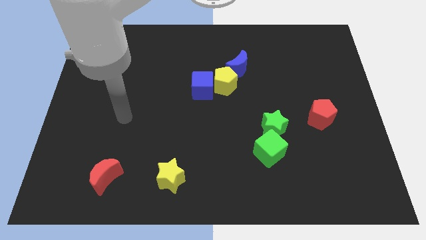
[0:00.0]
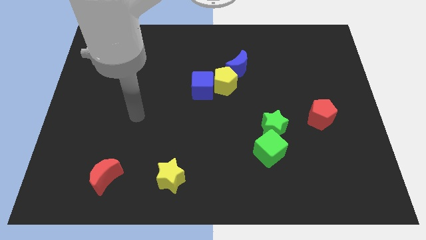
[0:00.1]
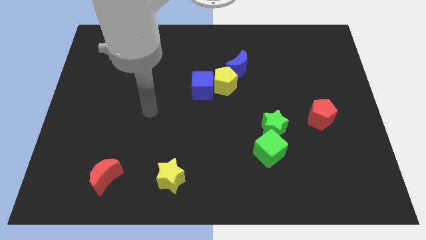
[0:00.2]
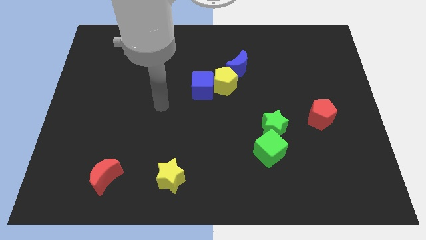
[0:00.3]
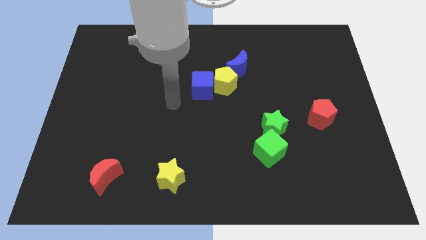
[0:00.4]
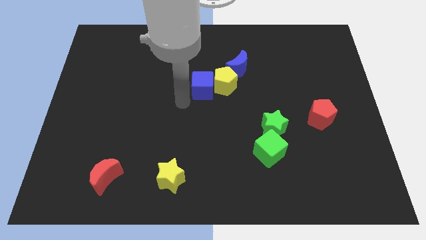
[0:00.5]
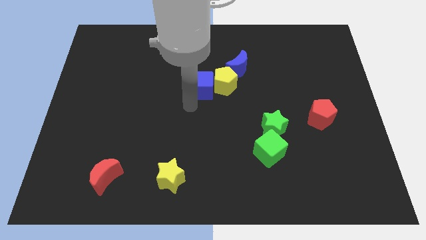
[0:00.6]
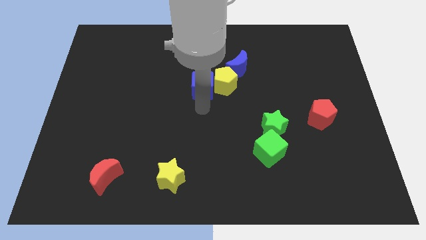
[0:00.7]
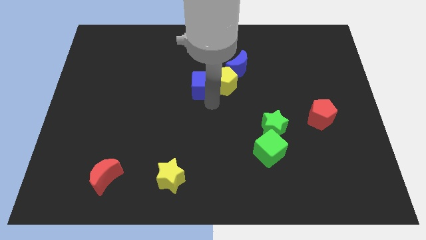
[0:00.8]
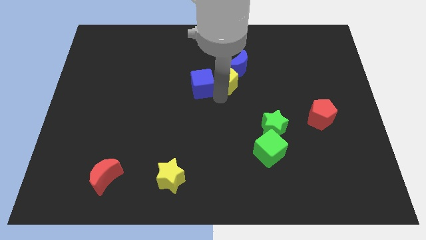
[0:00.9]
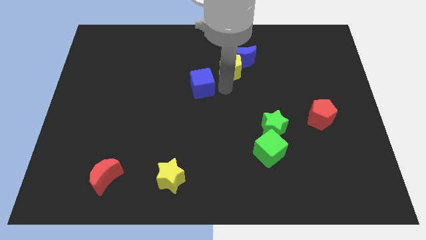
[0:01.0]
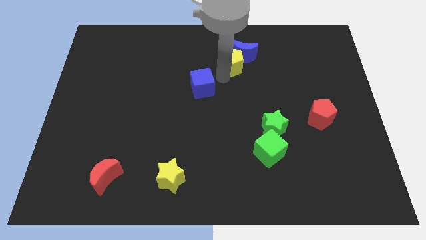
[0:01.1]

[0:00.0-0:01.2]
pull the blue cube apart from the yellow pentagon

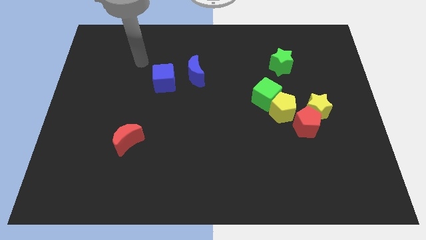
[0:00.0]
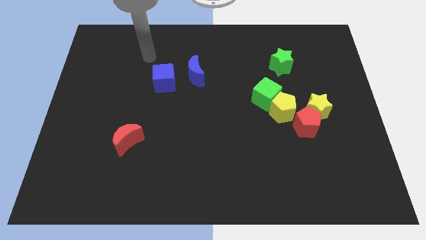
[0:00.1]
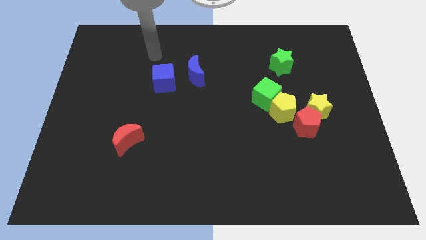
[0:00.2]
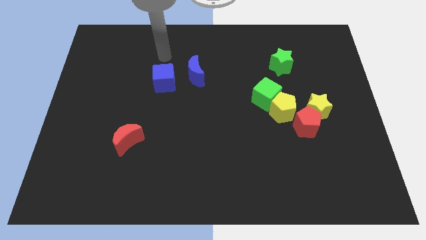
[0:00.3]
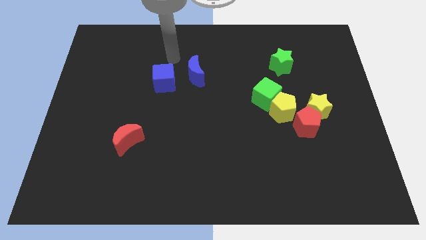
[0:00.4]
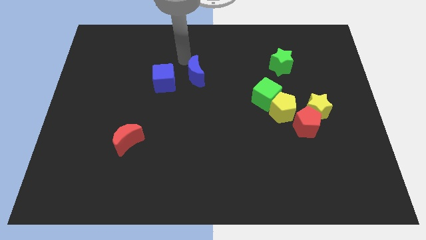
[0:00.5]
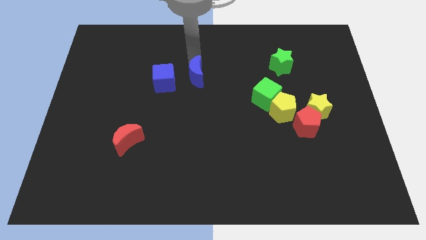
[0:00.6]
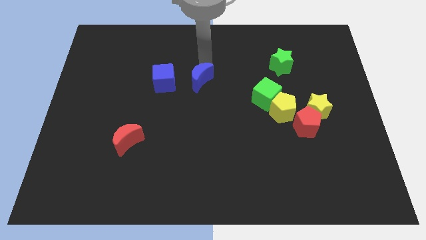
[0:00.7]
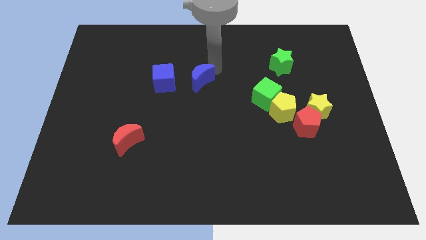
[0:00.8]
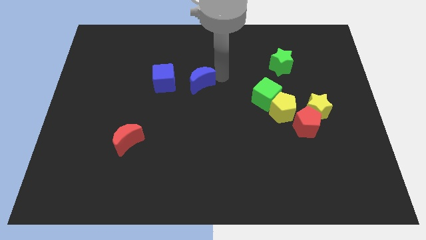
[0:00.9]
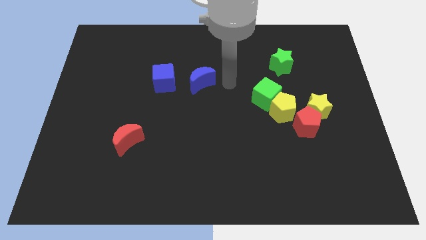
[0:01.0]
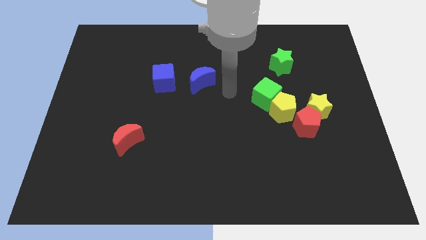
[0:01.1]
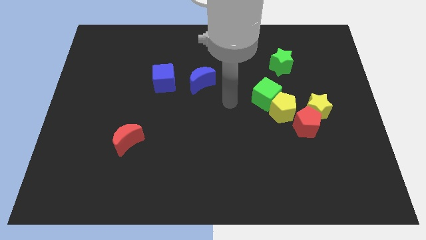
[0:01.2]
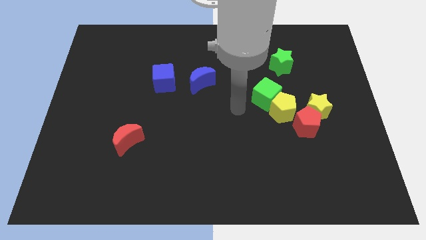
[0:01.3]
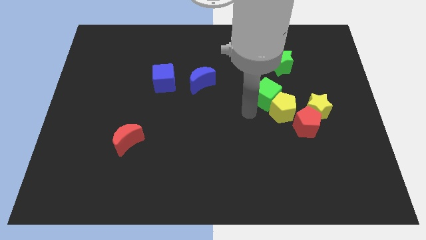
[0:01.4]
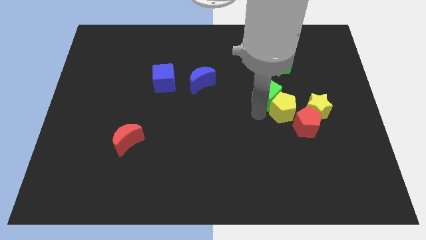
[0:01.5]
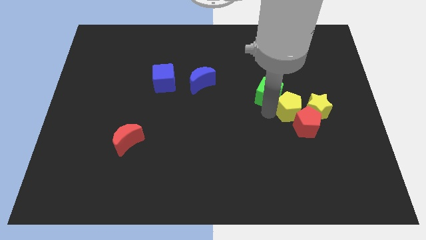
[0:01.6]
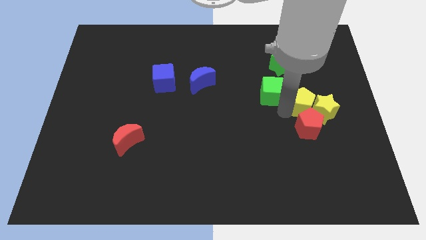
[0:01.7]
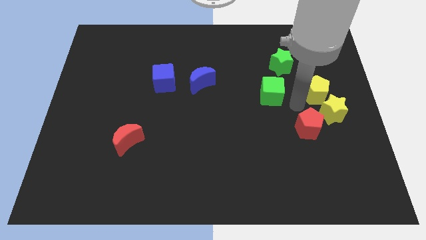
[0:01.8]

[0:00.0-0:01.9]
move the green cube away from the yellow pentagon

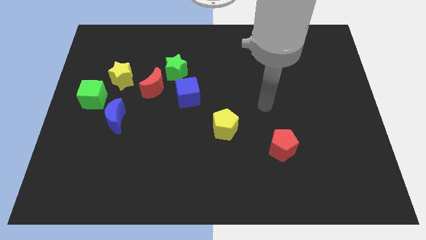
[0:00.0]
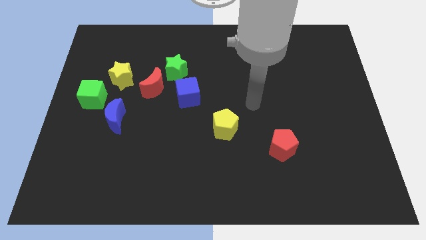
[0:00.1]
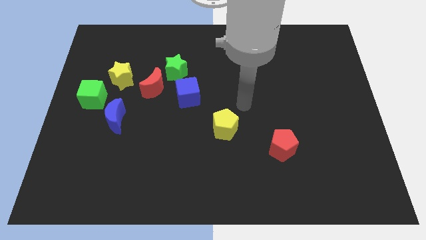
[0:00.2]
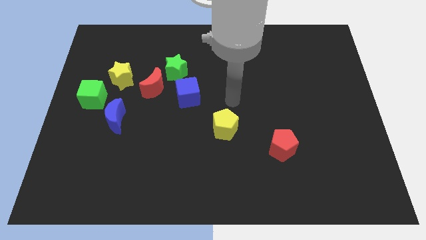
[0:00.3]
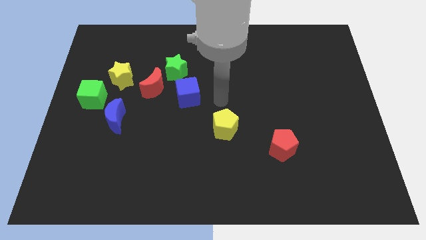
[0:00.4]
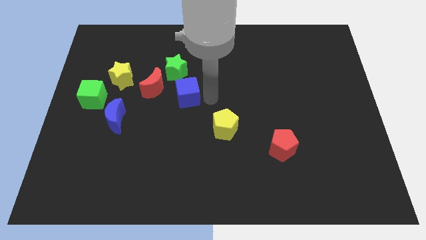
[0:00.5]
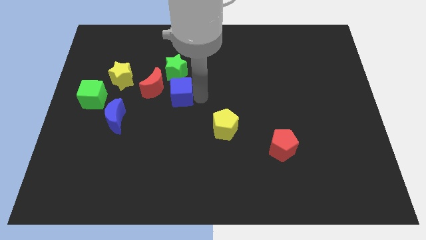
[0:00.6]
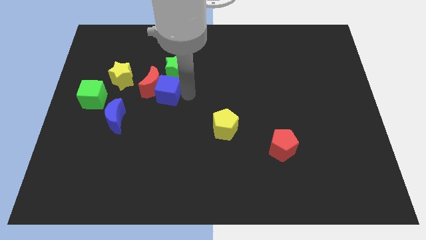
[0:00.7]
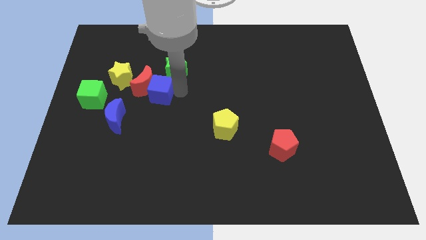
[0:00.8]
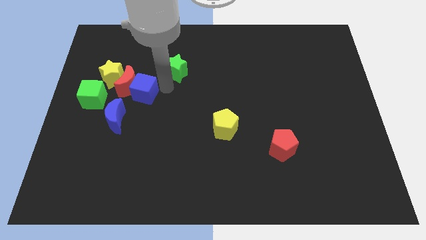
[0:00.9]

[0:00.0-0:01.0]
move the green star away from the red moon and blue cube

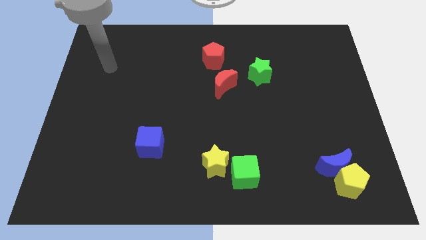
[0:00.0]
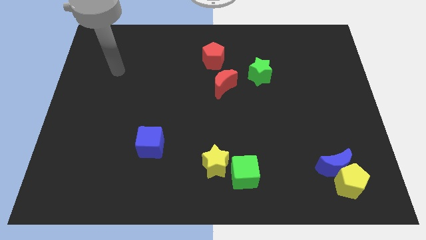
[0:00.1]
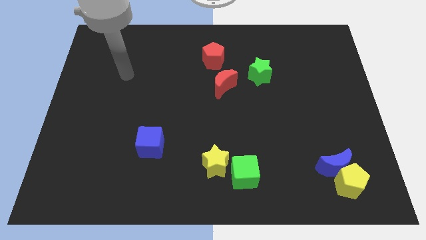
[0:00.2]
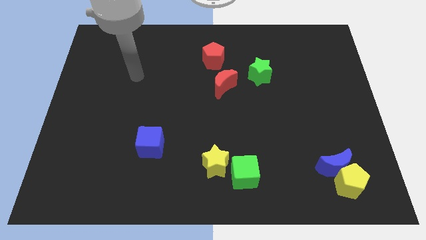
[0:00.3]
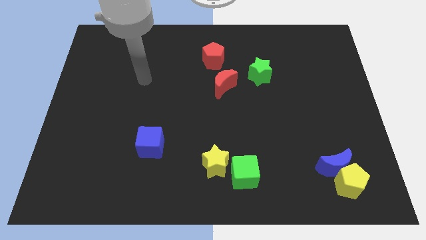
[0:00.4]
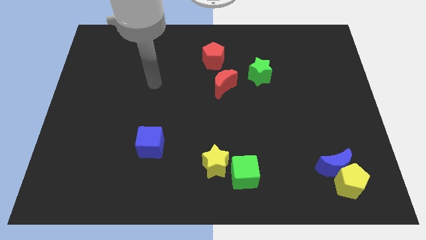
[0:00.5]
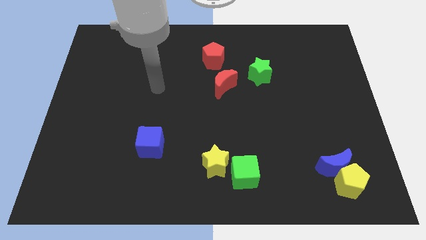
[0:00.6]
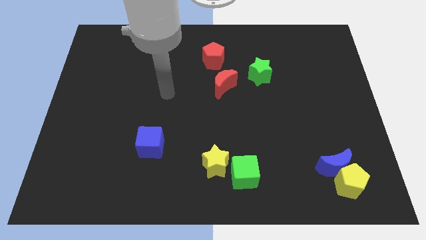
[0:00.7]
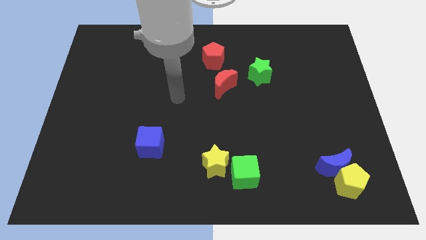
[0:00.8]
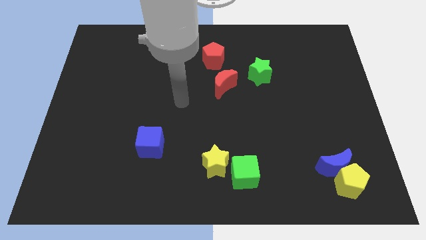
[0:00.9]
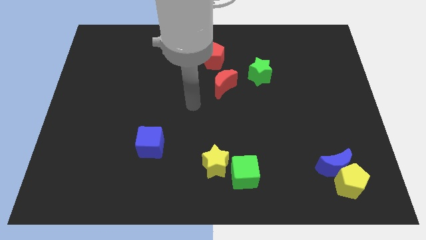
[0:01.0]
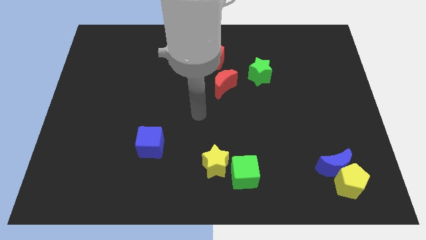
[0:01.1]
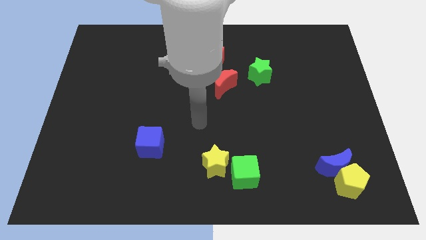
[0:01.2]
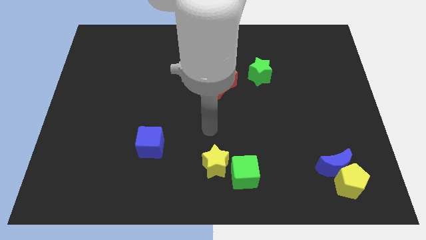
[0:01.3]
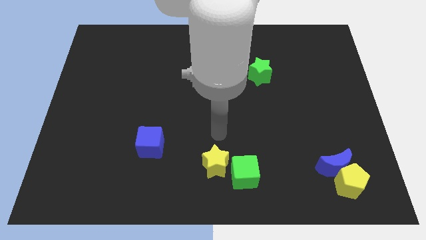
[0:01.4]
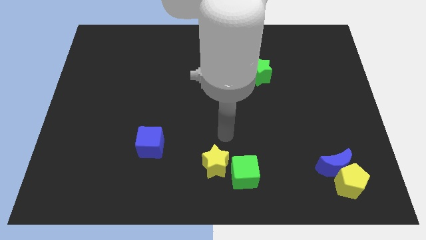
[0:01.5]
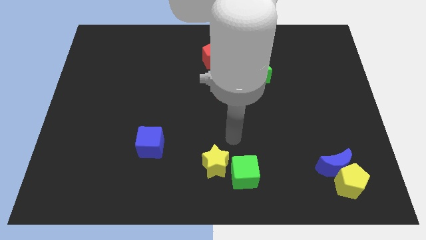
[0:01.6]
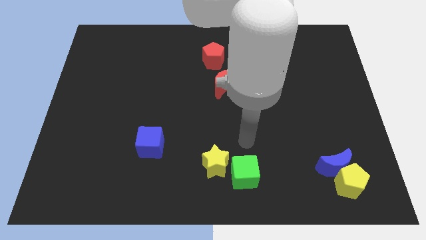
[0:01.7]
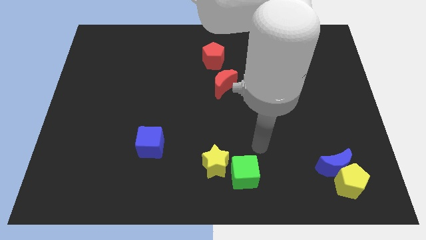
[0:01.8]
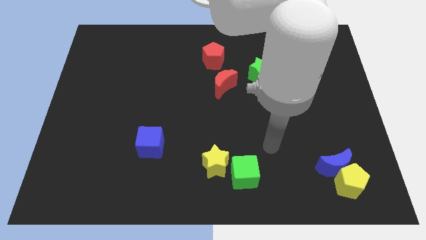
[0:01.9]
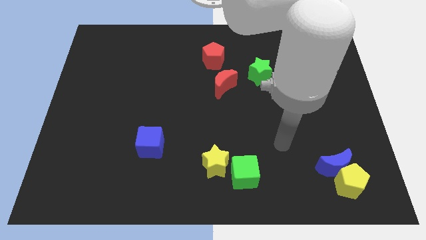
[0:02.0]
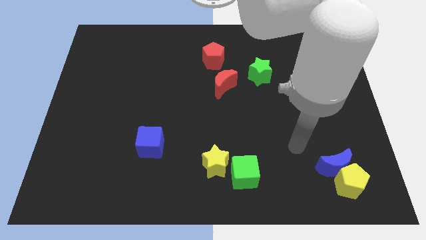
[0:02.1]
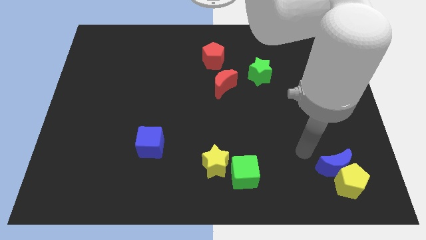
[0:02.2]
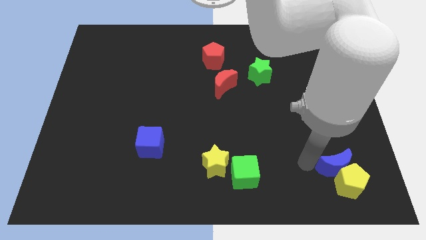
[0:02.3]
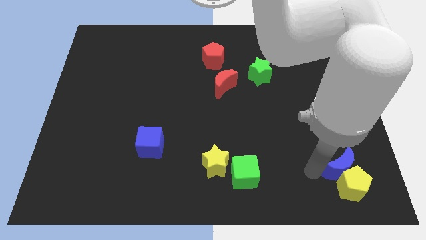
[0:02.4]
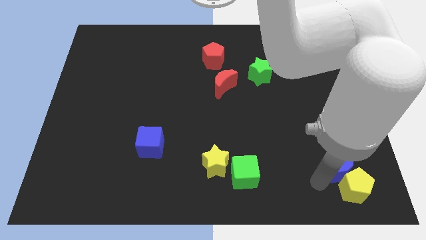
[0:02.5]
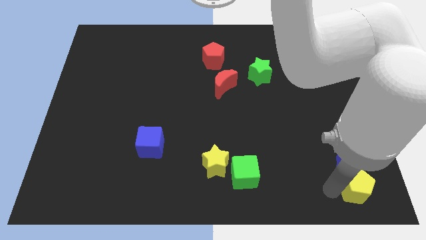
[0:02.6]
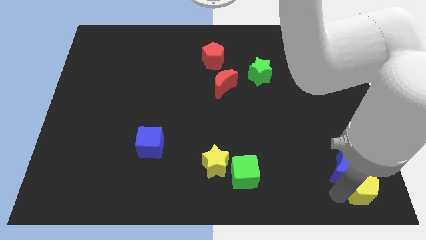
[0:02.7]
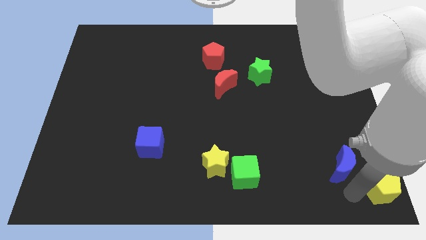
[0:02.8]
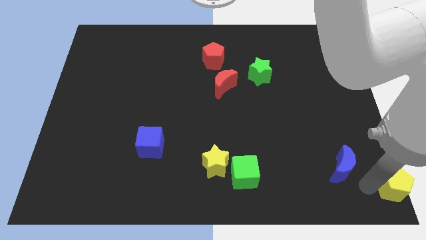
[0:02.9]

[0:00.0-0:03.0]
move the blue moon away from the yellow pentagon

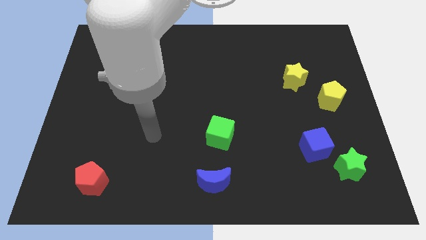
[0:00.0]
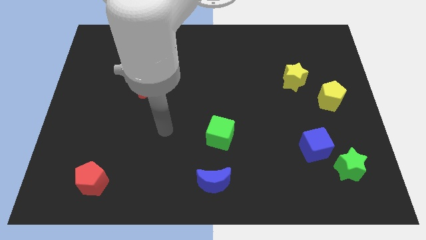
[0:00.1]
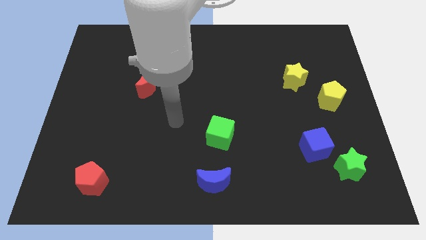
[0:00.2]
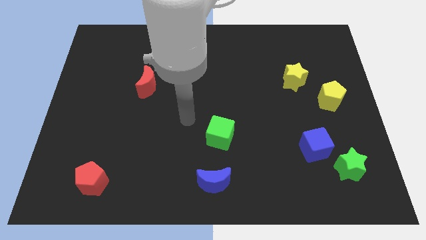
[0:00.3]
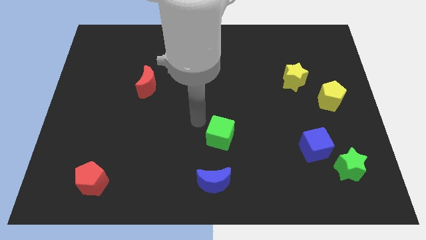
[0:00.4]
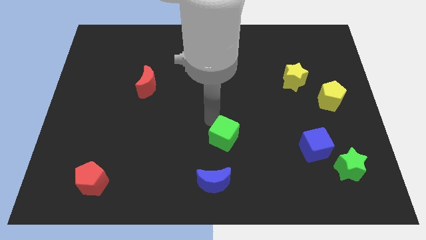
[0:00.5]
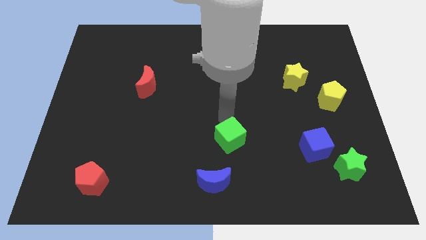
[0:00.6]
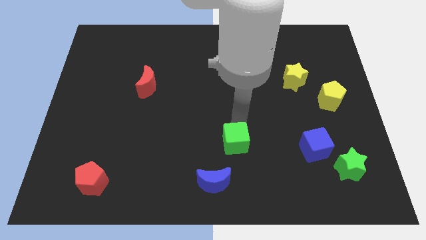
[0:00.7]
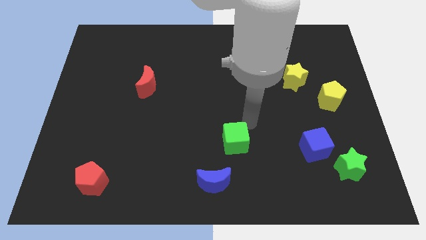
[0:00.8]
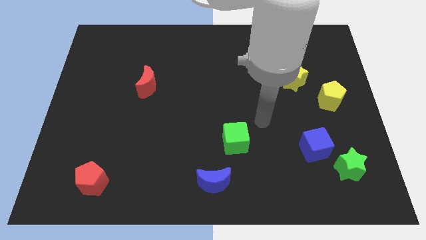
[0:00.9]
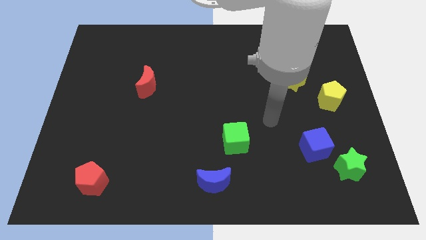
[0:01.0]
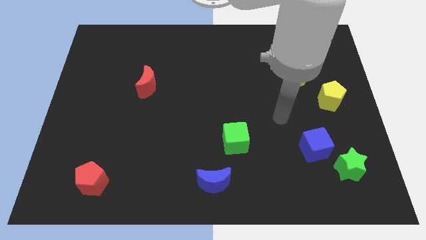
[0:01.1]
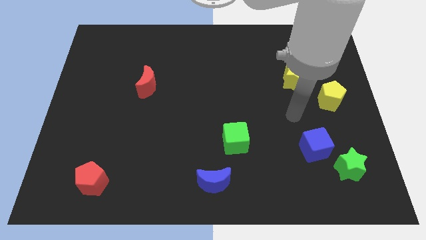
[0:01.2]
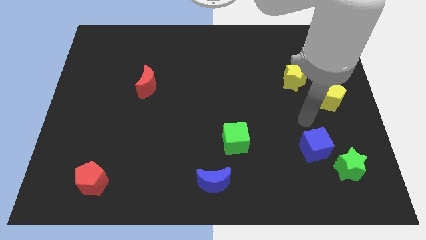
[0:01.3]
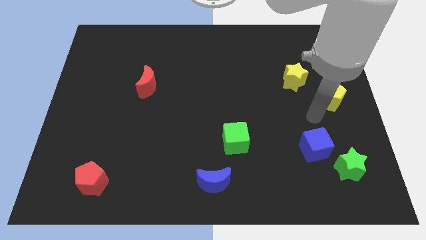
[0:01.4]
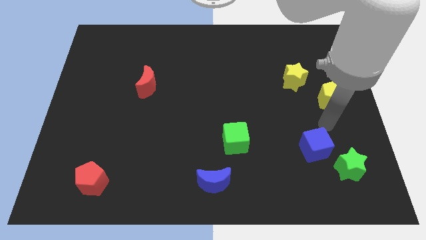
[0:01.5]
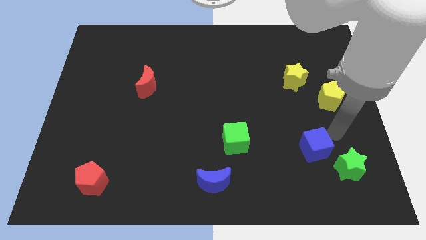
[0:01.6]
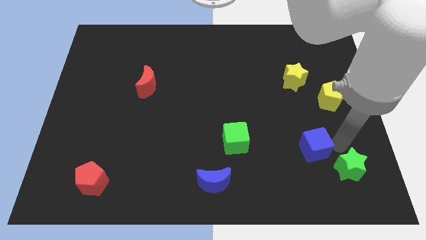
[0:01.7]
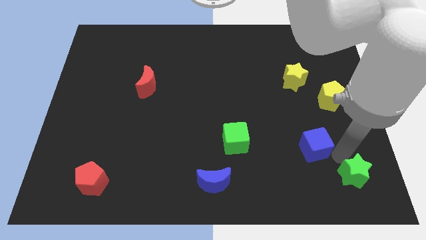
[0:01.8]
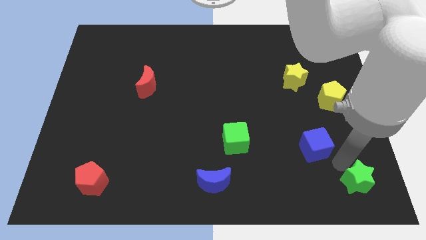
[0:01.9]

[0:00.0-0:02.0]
move the blue cube away from the green star

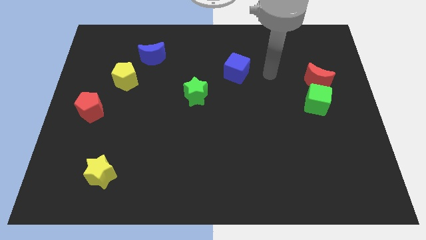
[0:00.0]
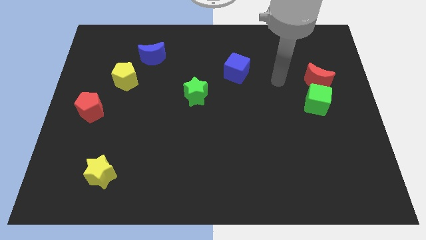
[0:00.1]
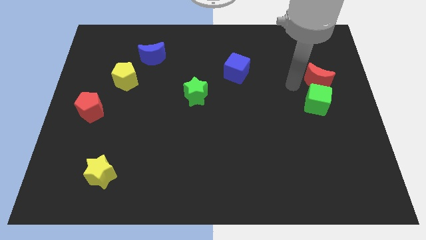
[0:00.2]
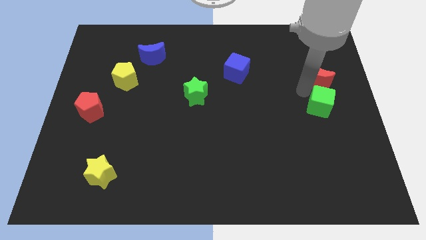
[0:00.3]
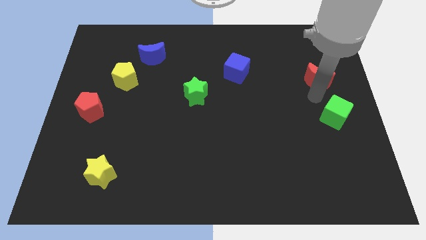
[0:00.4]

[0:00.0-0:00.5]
pull the red moon apart from the green cube
